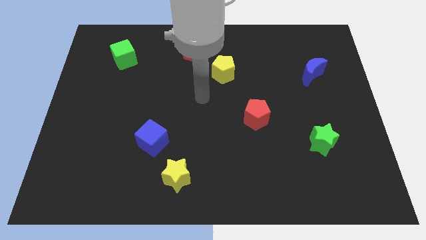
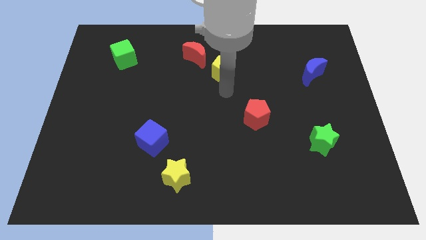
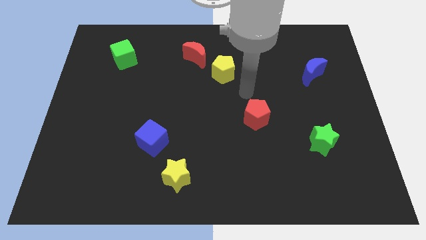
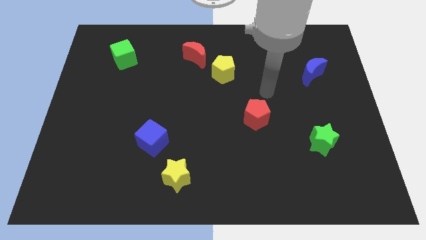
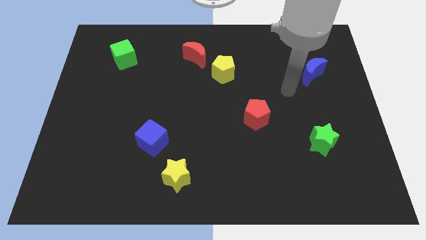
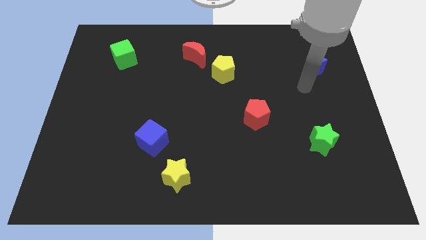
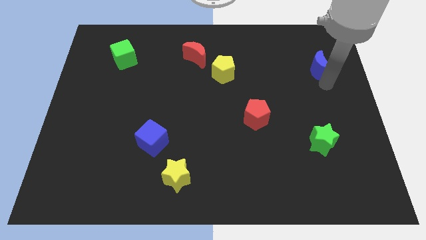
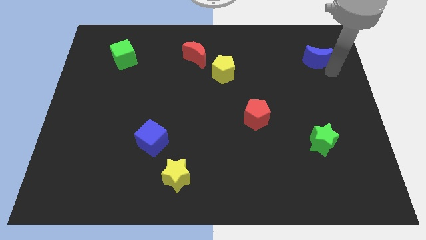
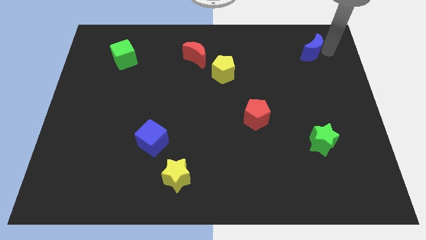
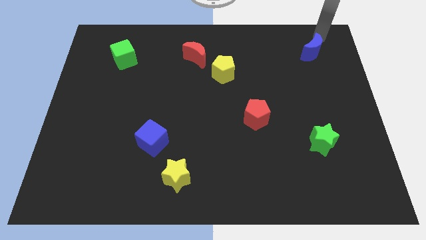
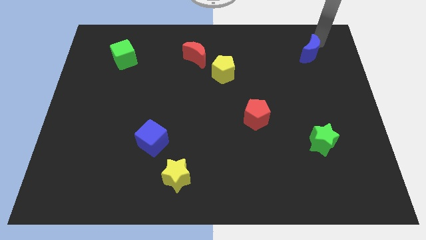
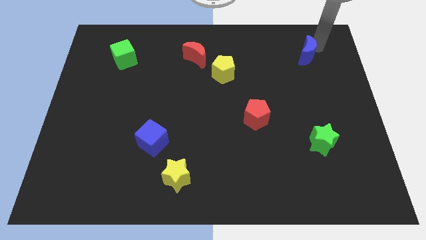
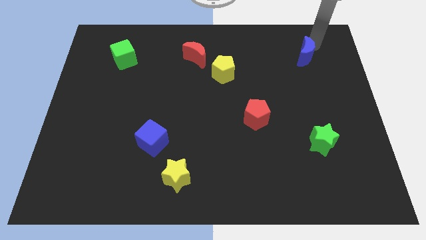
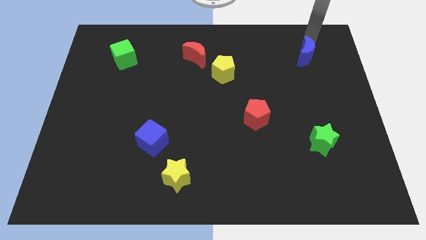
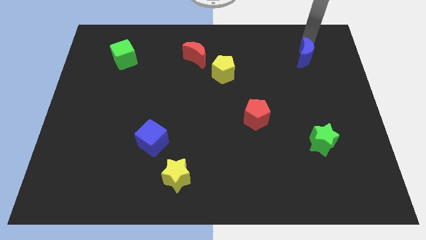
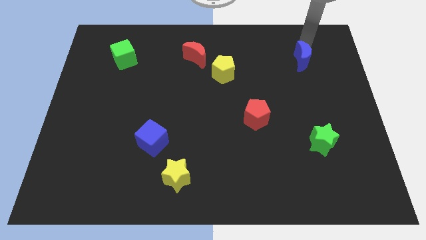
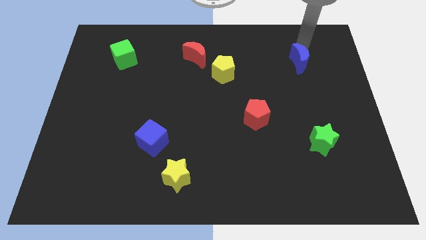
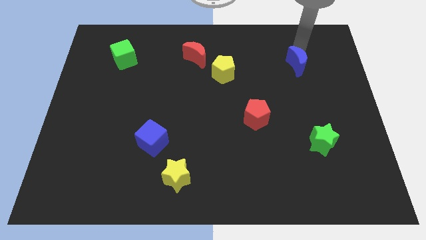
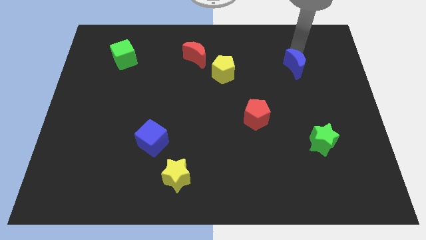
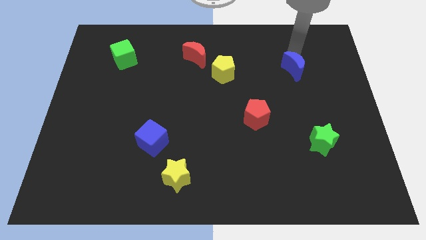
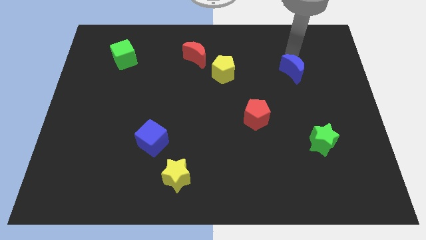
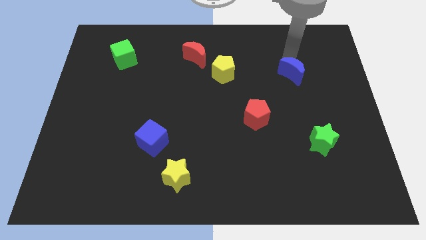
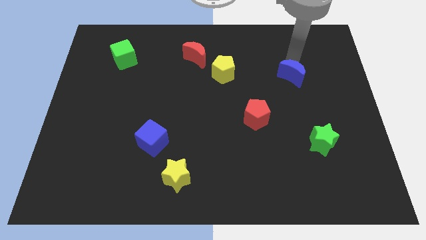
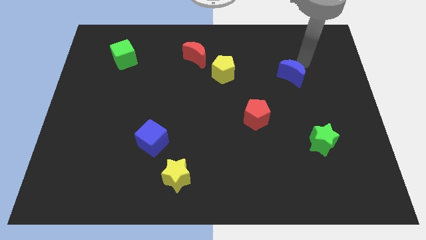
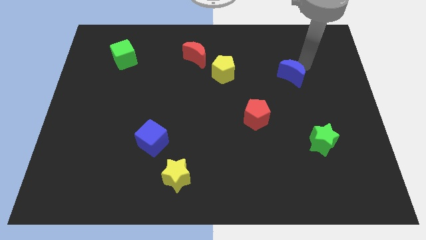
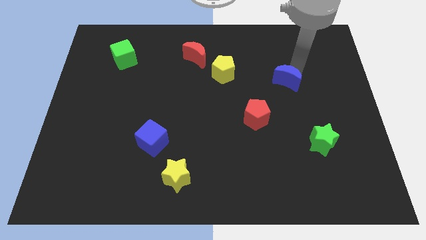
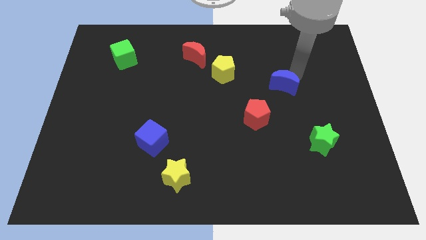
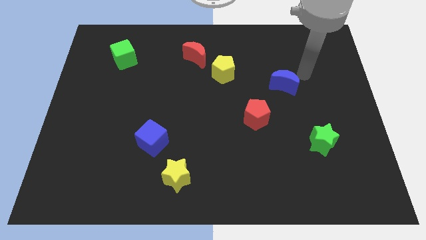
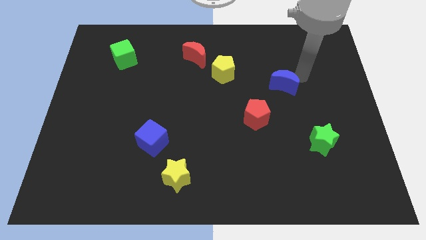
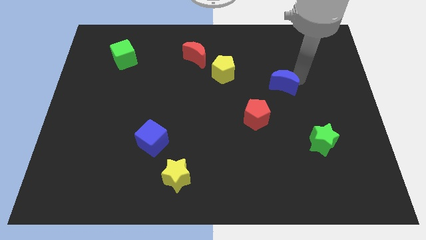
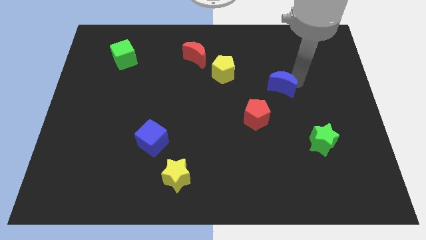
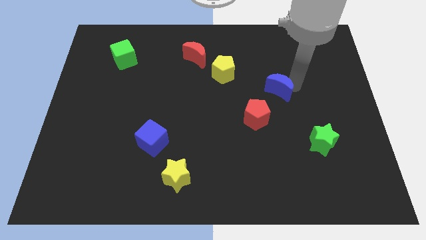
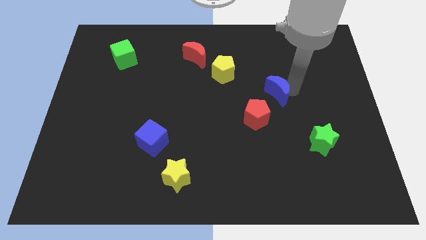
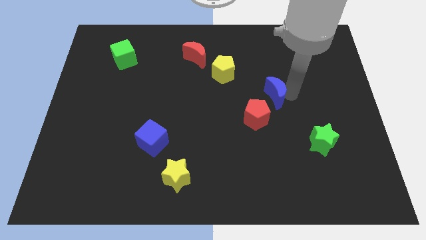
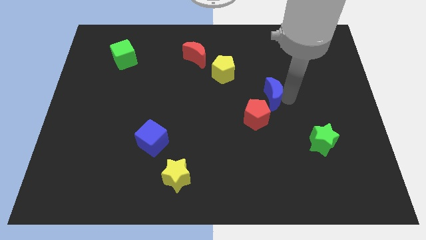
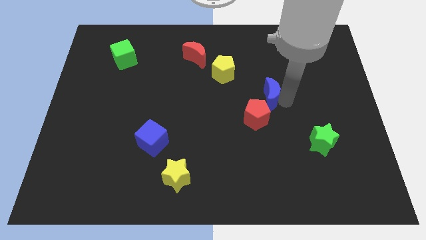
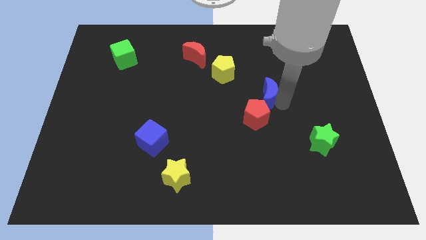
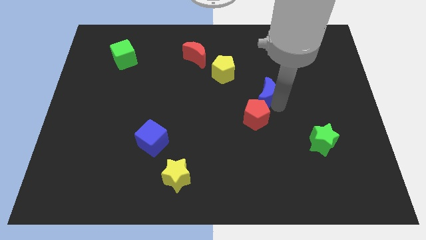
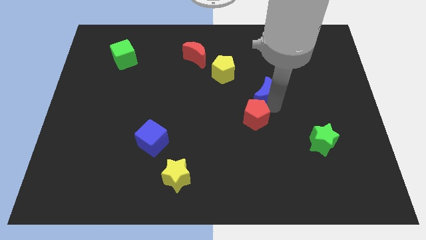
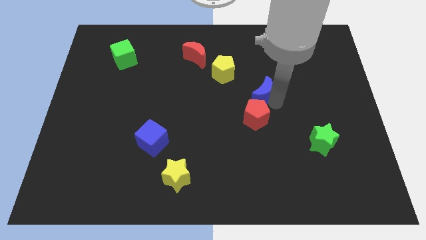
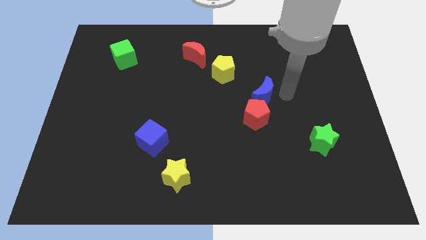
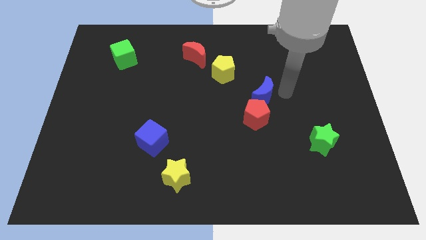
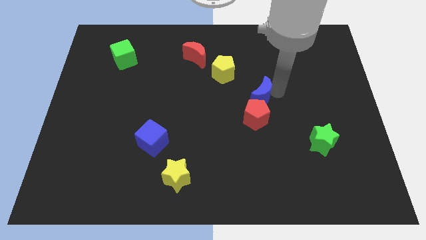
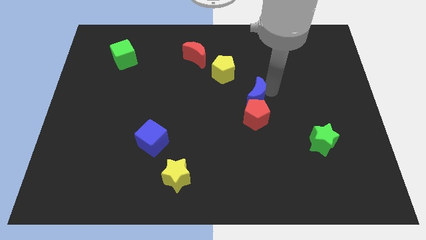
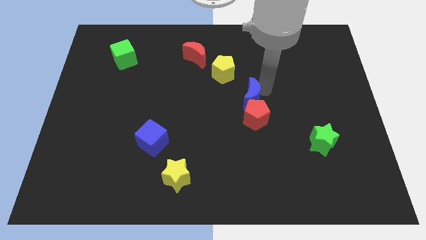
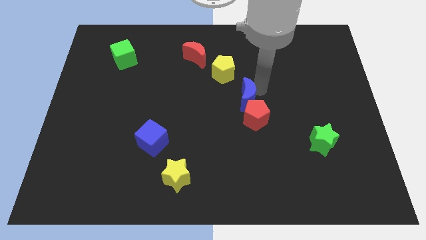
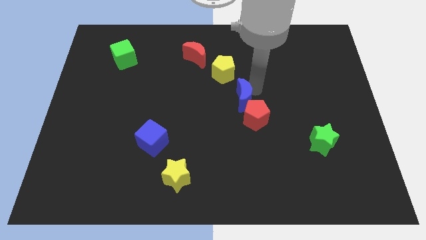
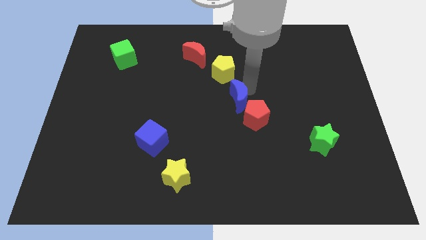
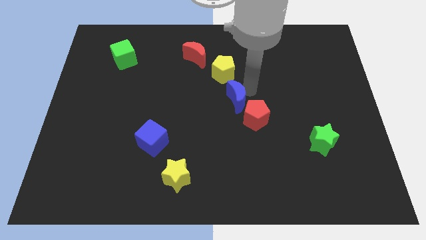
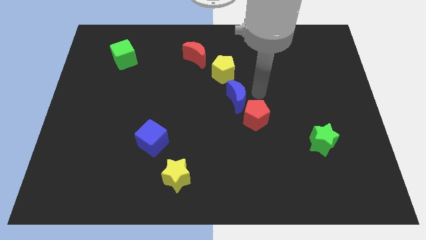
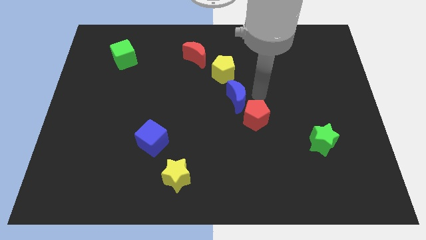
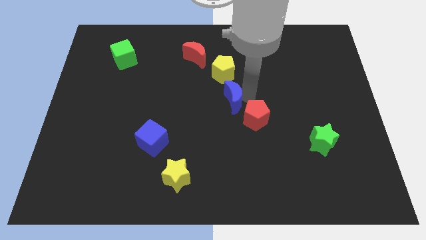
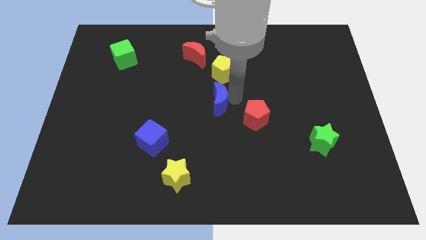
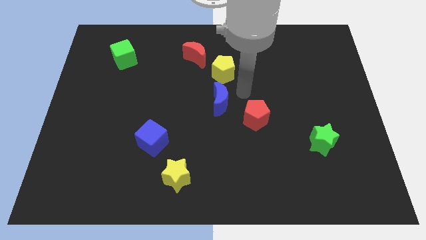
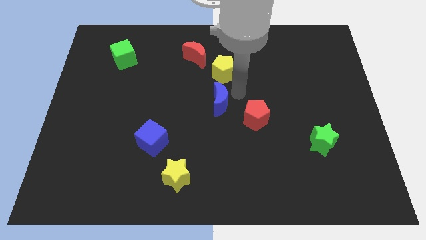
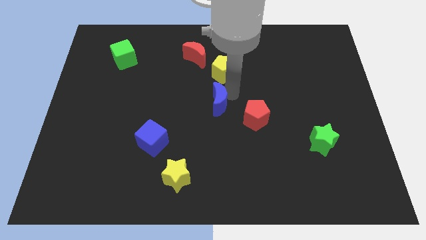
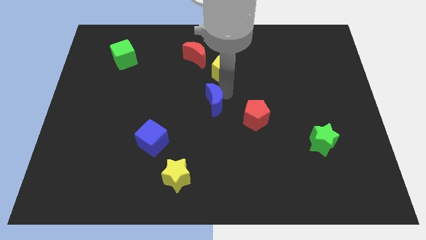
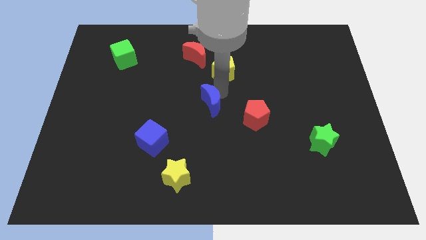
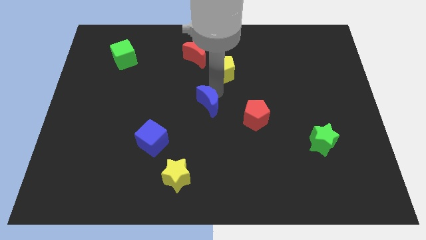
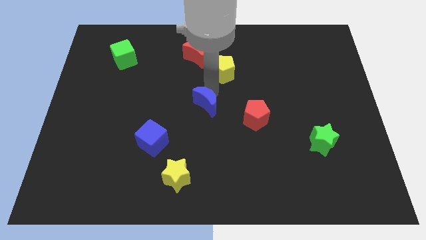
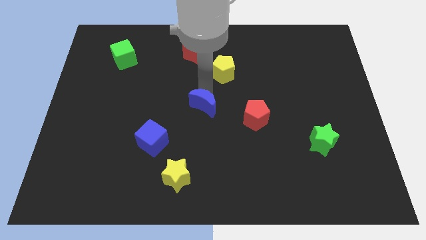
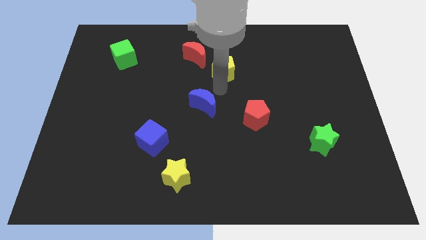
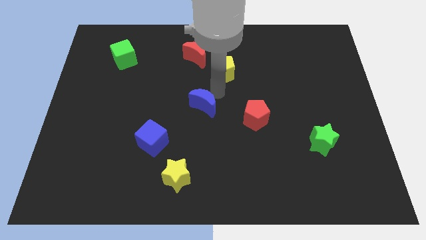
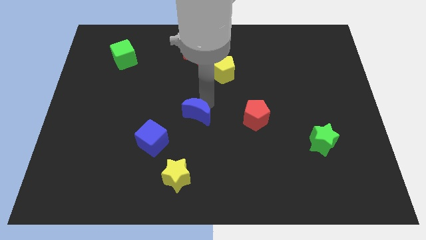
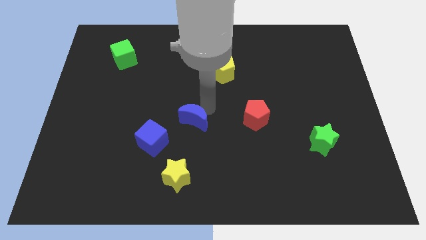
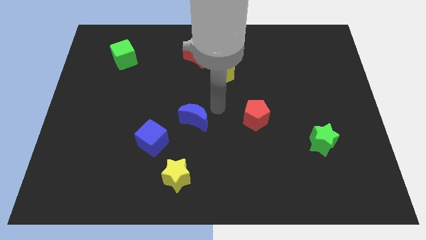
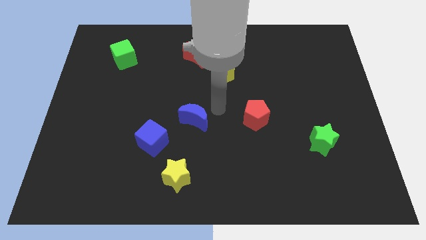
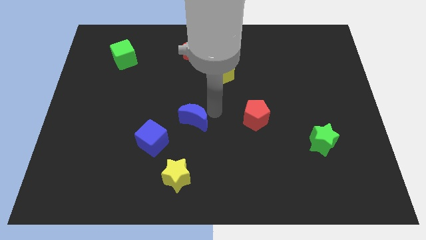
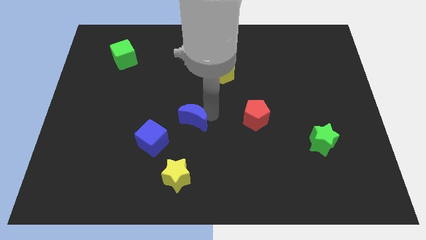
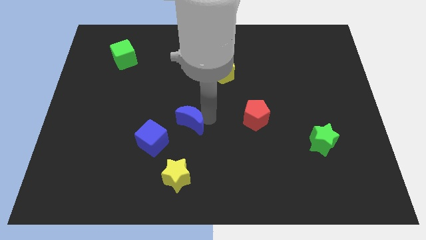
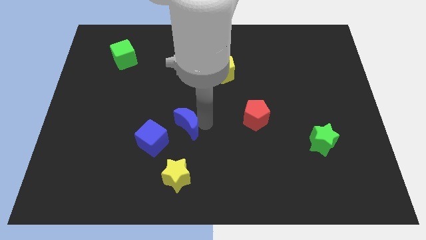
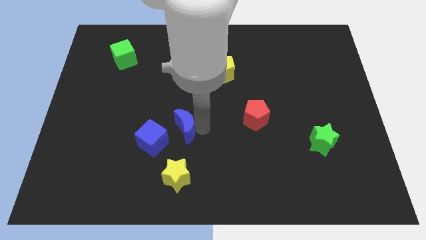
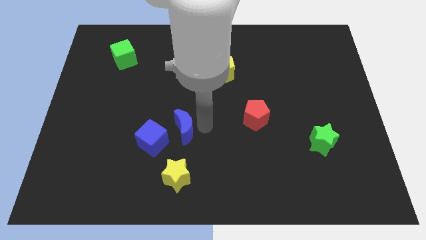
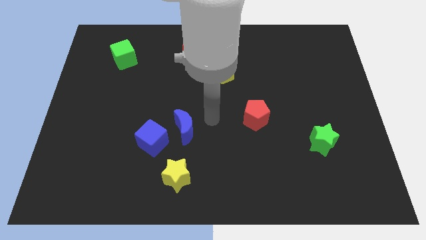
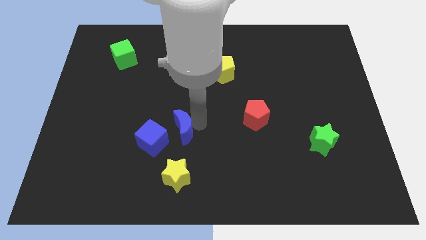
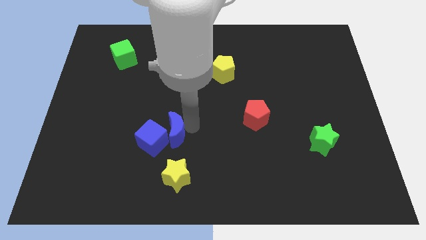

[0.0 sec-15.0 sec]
put the blue moon close to the blue cube
